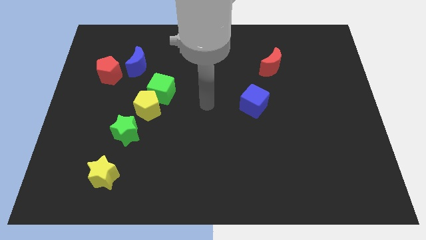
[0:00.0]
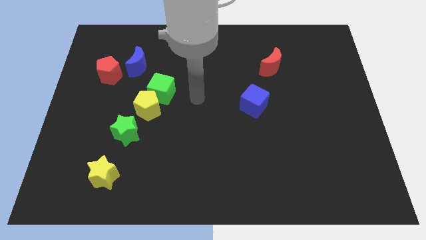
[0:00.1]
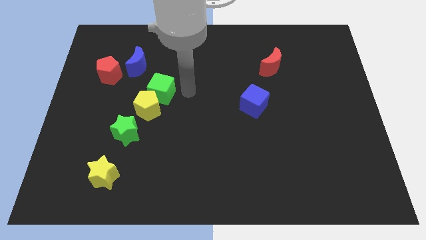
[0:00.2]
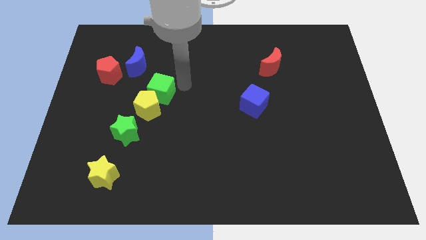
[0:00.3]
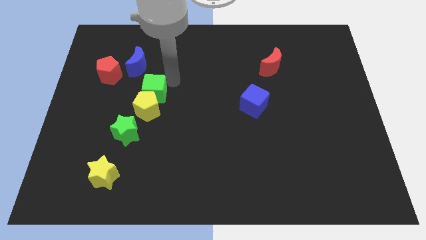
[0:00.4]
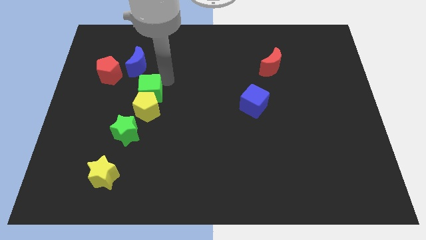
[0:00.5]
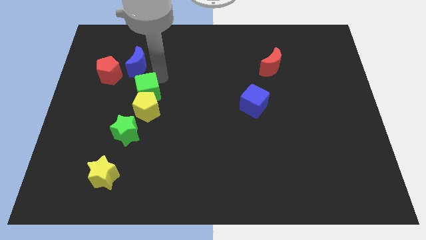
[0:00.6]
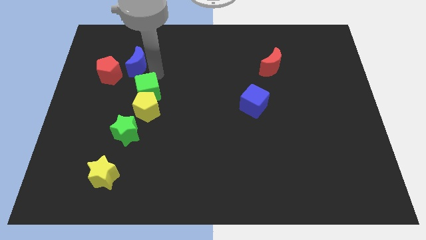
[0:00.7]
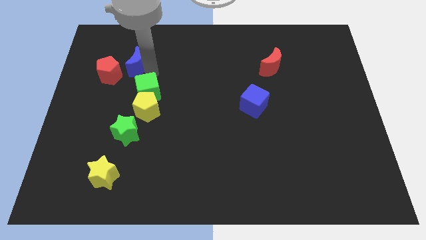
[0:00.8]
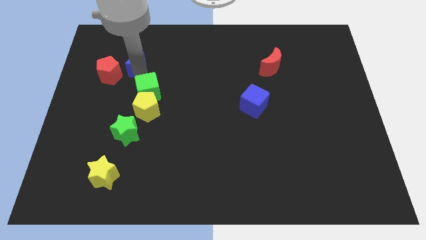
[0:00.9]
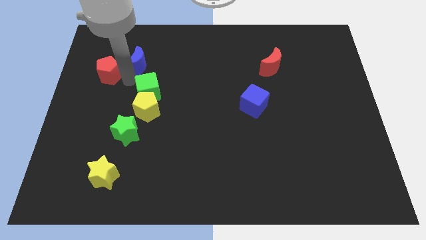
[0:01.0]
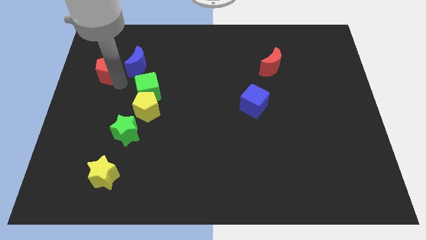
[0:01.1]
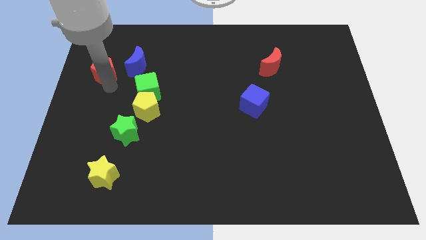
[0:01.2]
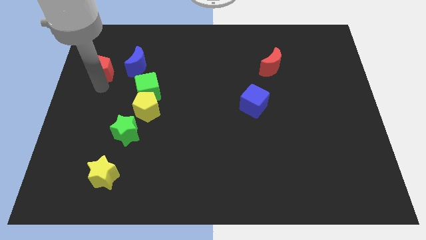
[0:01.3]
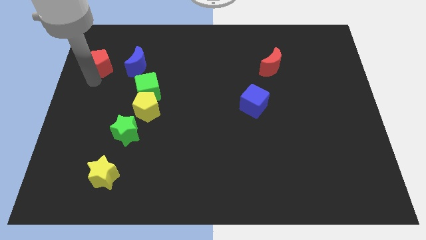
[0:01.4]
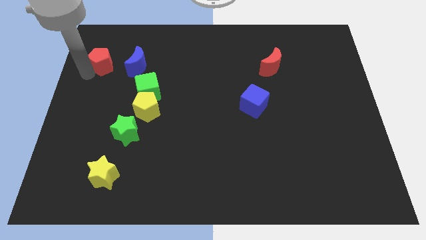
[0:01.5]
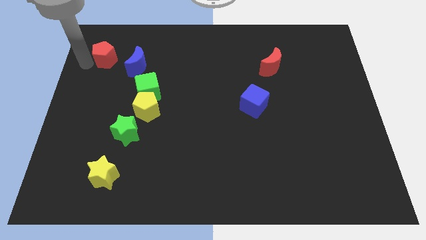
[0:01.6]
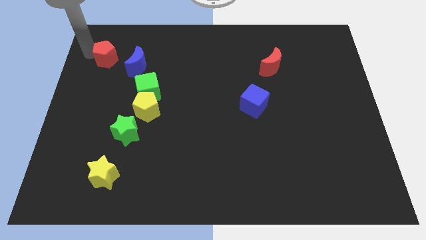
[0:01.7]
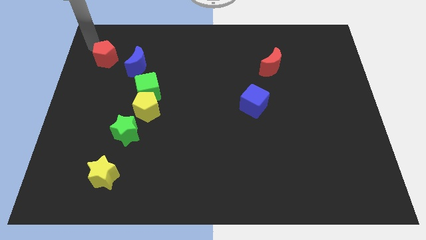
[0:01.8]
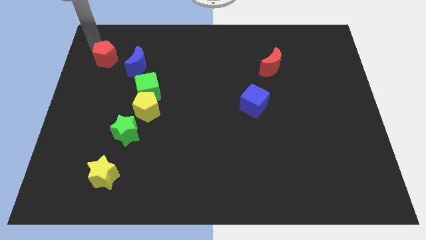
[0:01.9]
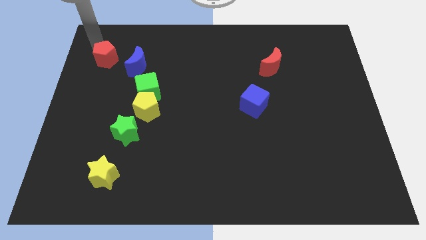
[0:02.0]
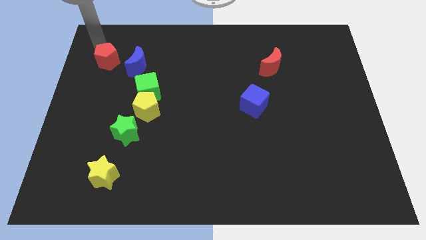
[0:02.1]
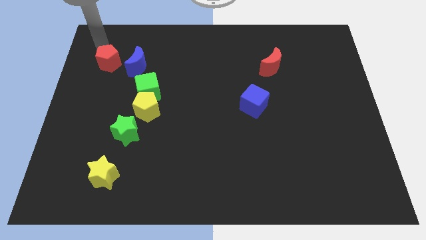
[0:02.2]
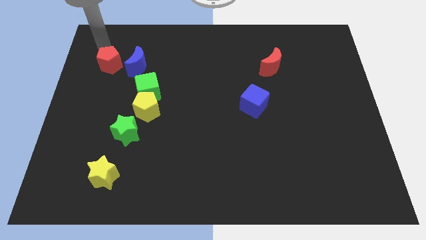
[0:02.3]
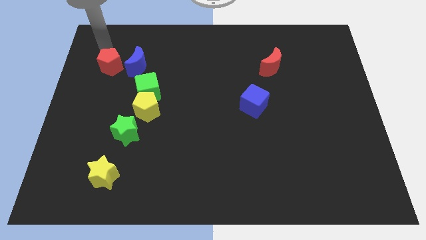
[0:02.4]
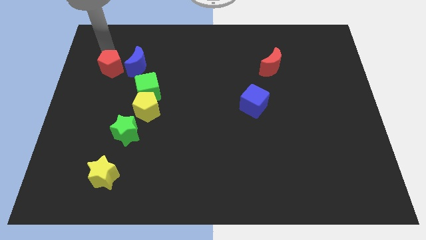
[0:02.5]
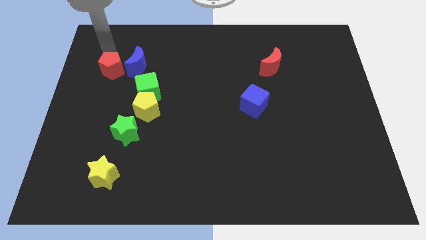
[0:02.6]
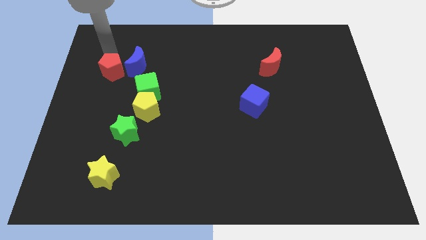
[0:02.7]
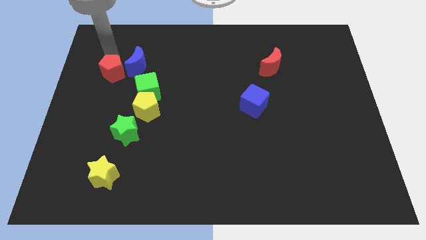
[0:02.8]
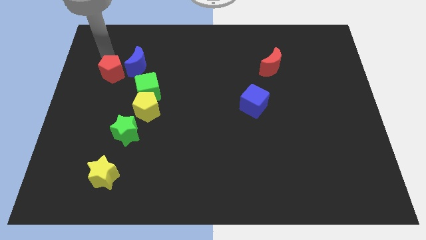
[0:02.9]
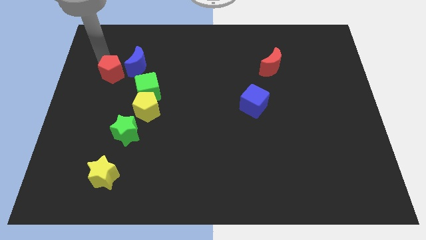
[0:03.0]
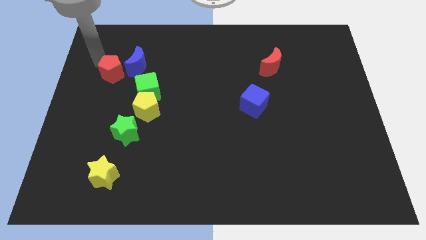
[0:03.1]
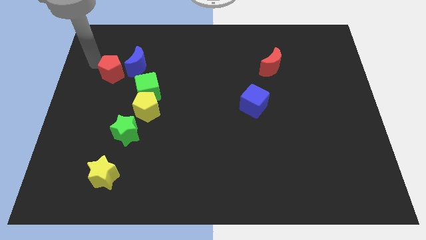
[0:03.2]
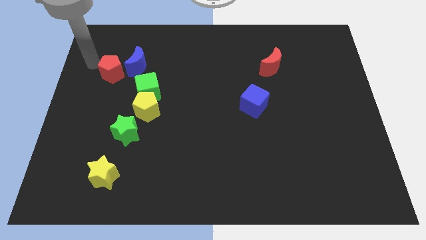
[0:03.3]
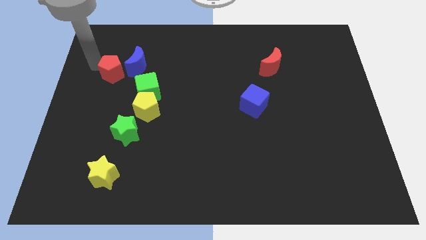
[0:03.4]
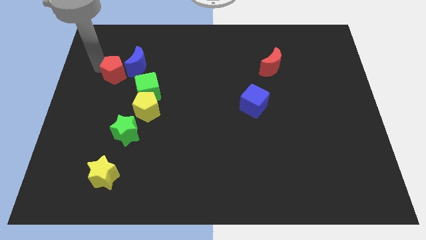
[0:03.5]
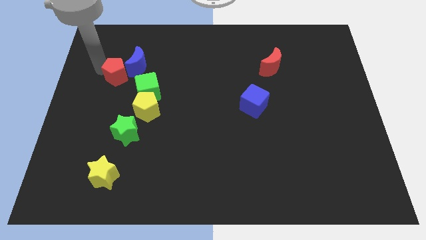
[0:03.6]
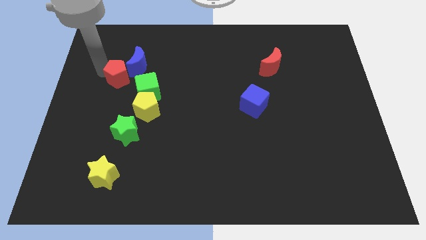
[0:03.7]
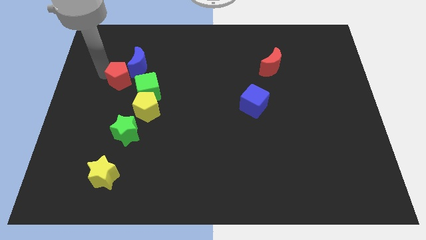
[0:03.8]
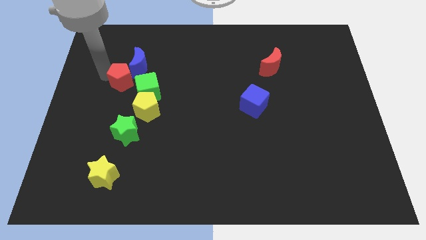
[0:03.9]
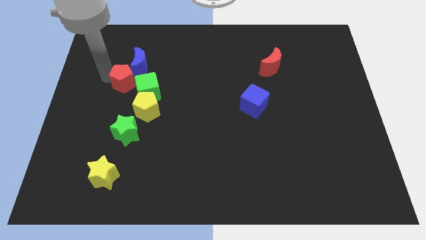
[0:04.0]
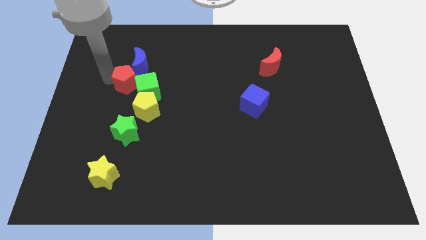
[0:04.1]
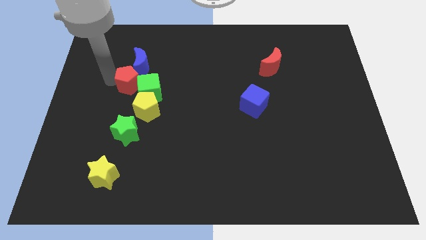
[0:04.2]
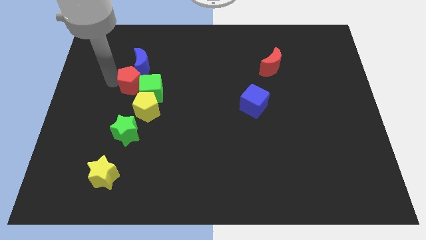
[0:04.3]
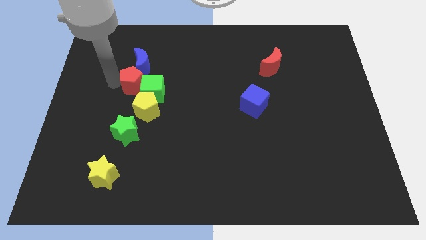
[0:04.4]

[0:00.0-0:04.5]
slide the red pentagon down and then right slightly

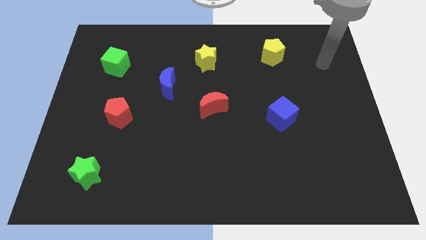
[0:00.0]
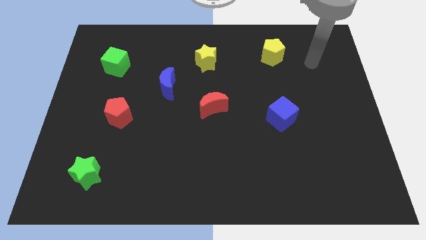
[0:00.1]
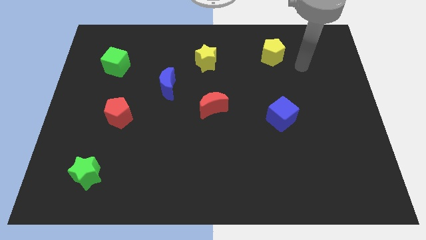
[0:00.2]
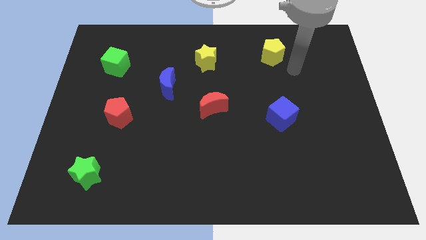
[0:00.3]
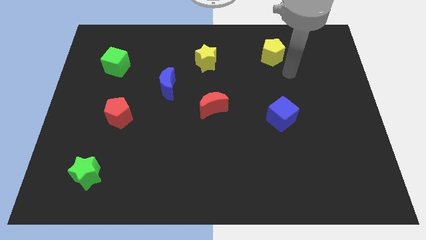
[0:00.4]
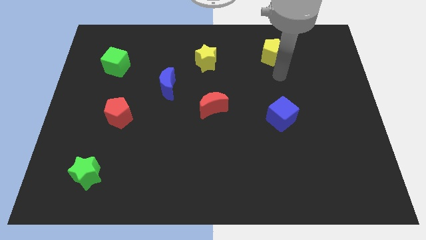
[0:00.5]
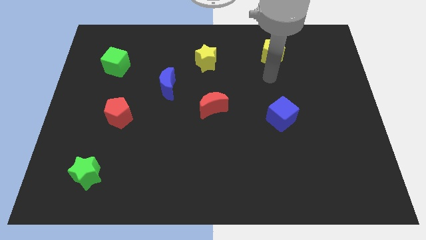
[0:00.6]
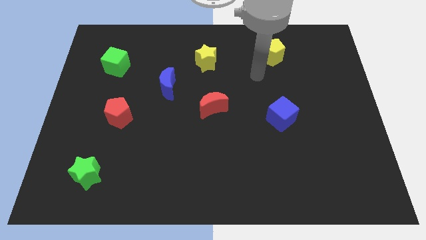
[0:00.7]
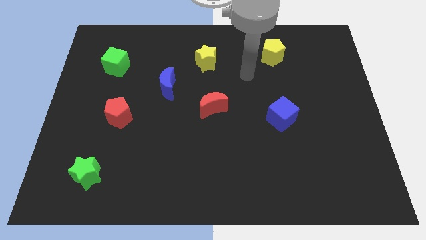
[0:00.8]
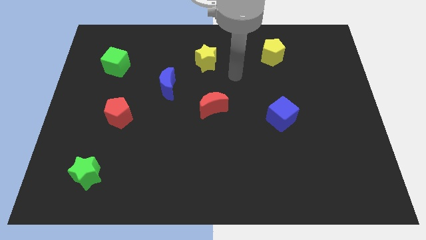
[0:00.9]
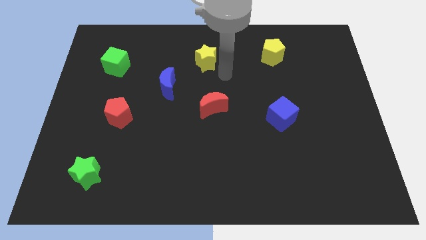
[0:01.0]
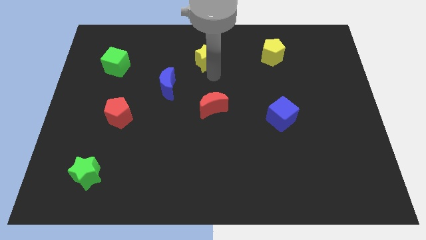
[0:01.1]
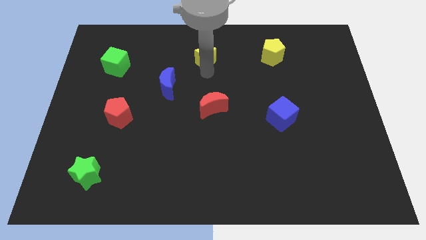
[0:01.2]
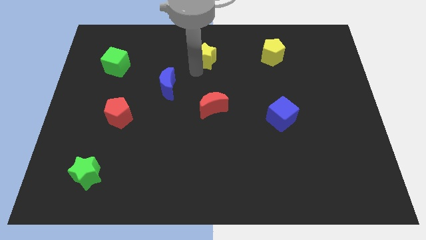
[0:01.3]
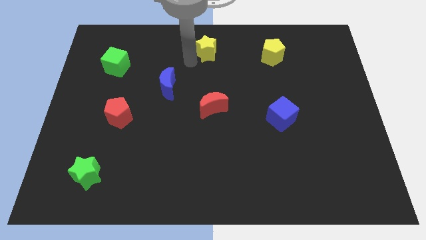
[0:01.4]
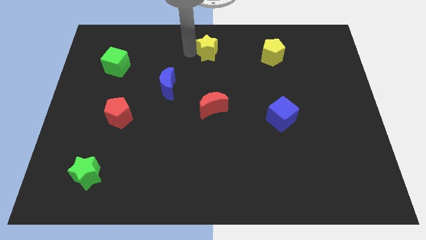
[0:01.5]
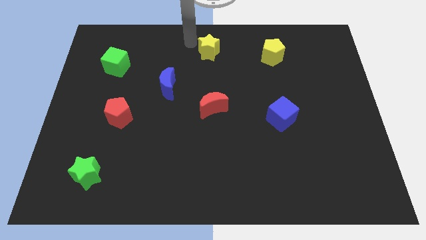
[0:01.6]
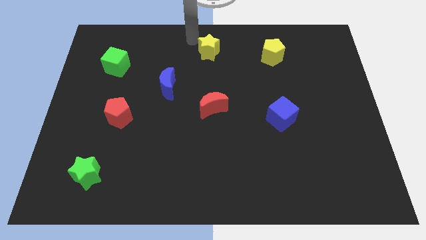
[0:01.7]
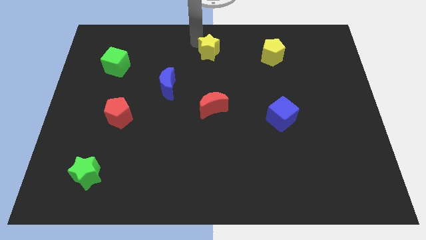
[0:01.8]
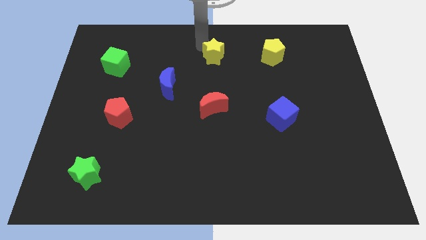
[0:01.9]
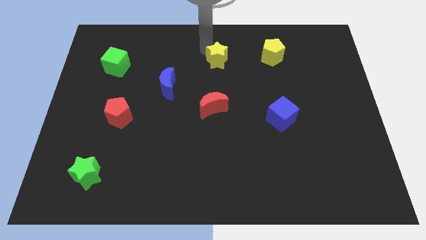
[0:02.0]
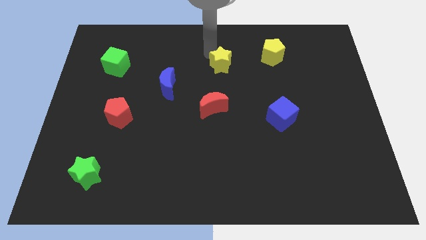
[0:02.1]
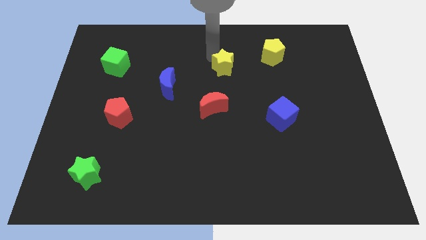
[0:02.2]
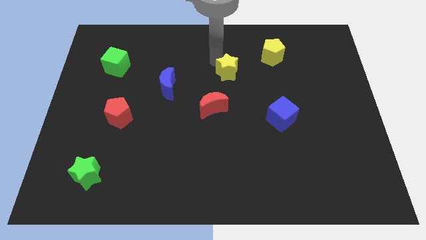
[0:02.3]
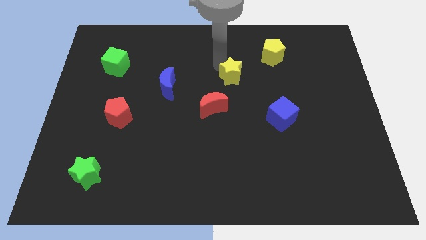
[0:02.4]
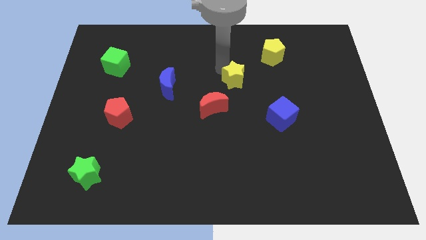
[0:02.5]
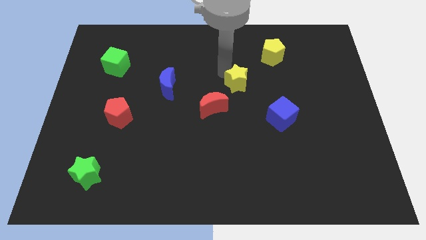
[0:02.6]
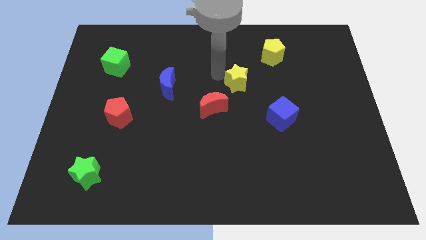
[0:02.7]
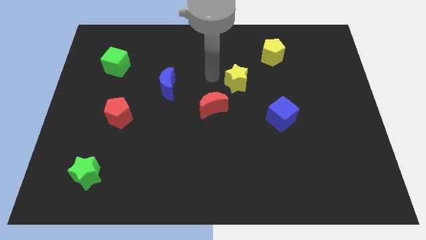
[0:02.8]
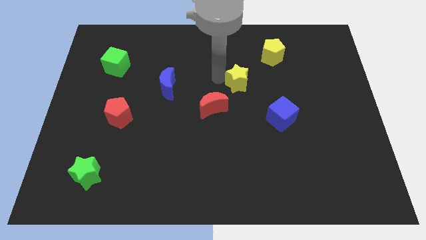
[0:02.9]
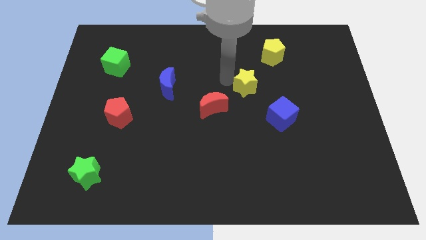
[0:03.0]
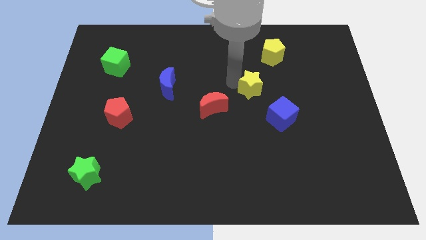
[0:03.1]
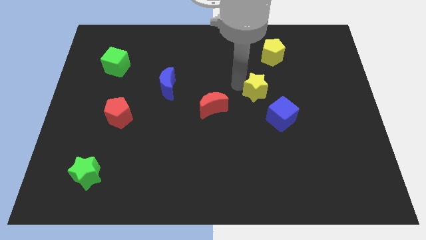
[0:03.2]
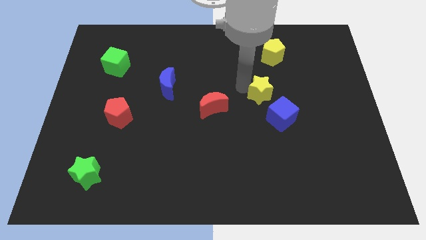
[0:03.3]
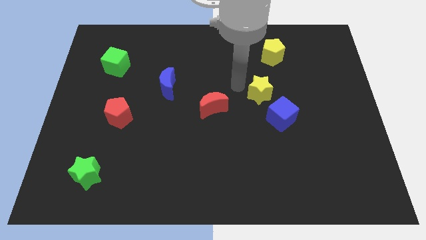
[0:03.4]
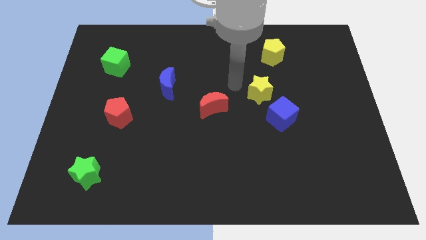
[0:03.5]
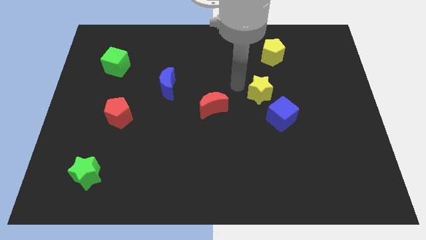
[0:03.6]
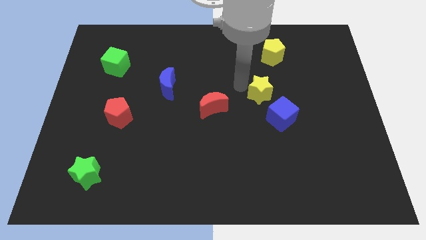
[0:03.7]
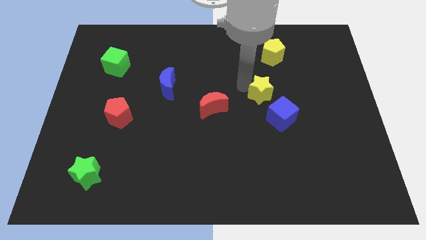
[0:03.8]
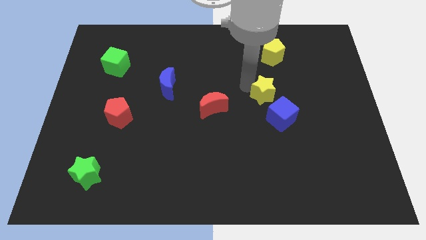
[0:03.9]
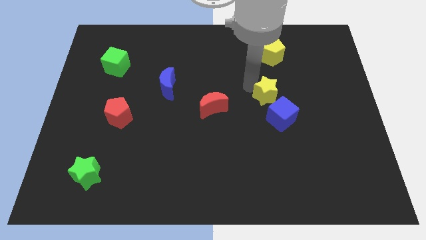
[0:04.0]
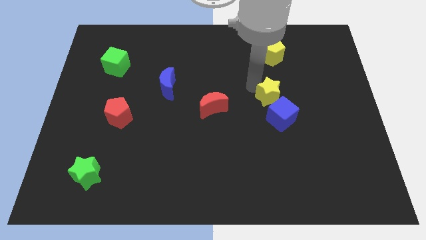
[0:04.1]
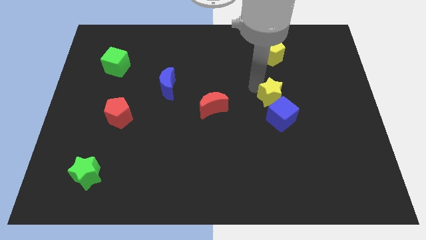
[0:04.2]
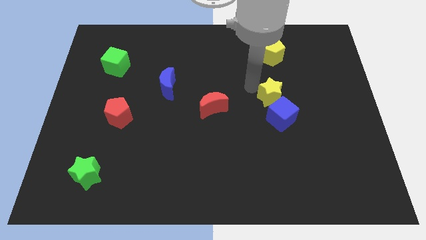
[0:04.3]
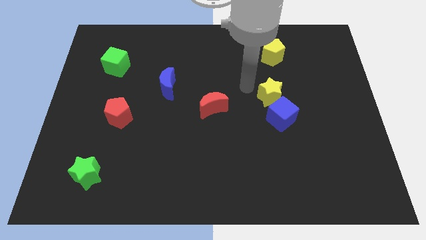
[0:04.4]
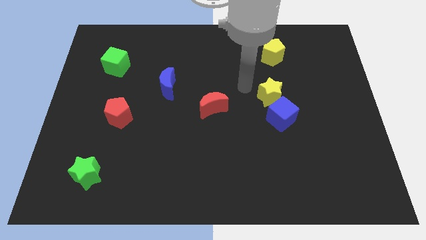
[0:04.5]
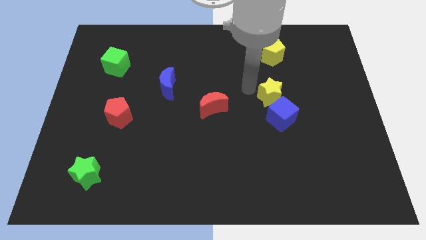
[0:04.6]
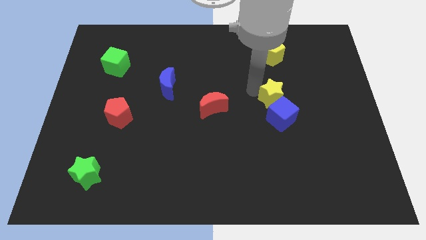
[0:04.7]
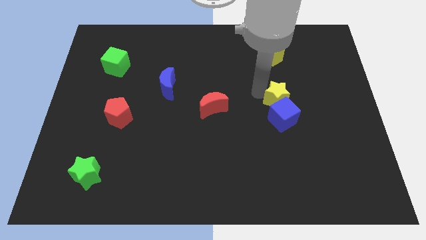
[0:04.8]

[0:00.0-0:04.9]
slide the yellow star down and to the right diagonally
